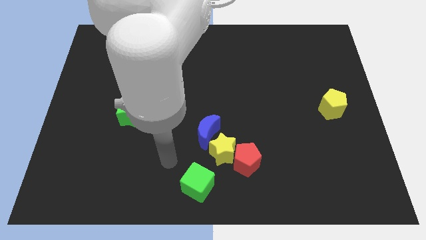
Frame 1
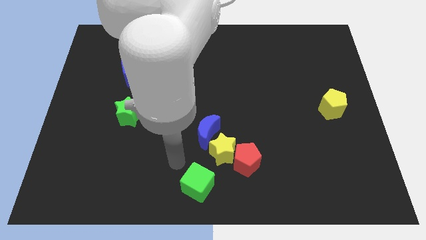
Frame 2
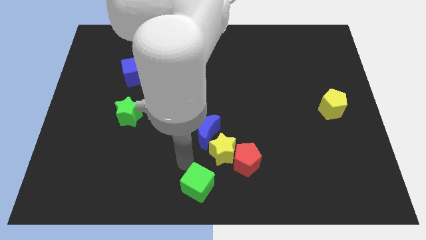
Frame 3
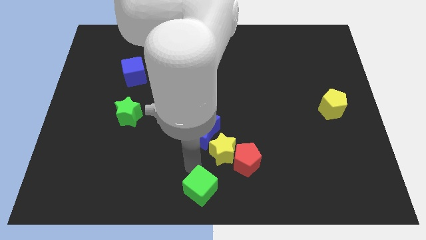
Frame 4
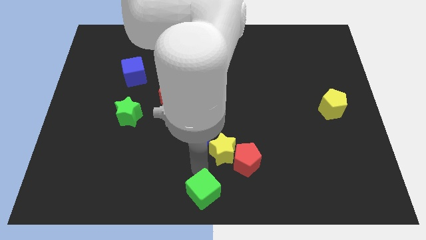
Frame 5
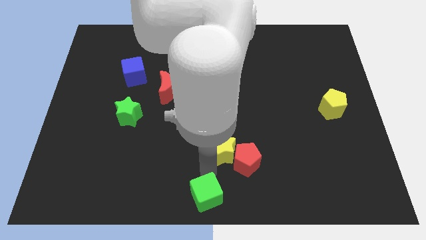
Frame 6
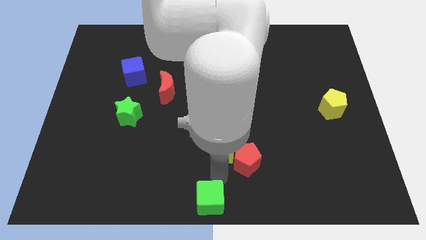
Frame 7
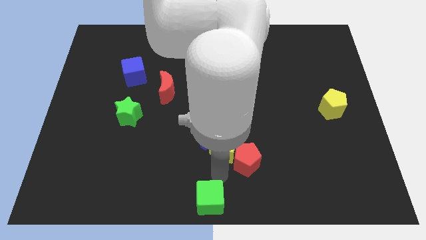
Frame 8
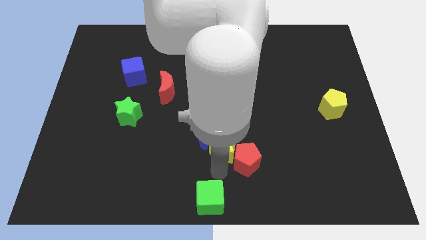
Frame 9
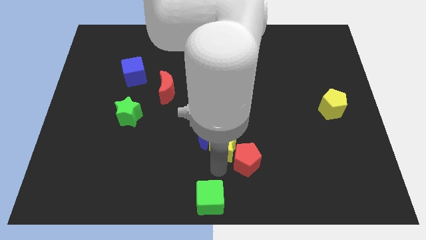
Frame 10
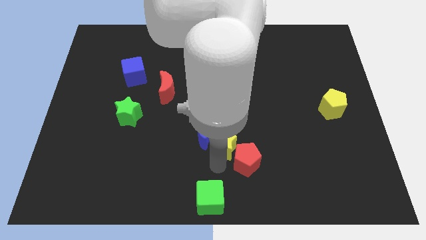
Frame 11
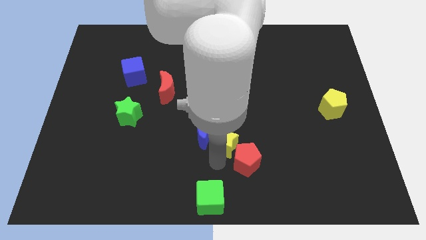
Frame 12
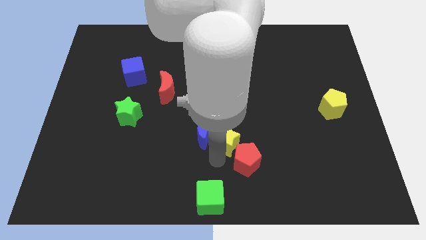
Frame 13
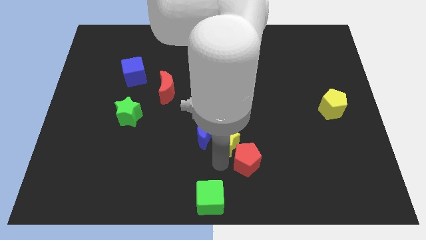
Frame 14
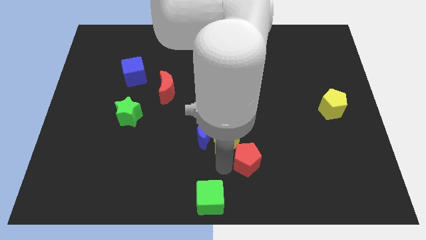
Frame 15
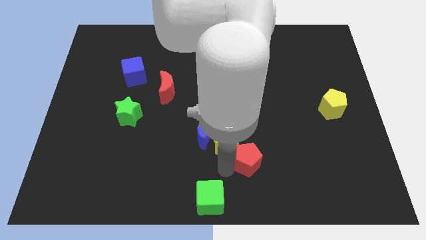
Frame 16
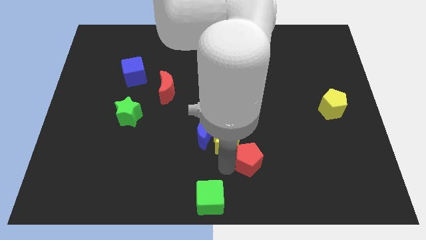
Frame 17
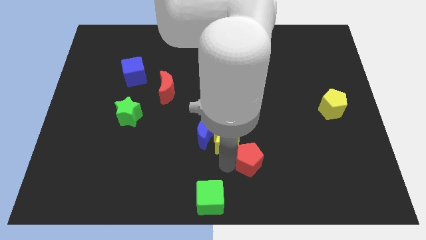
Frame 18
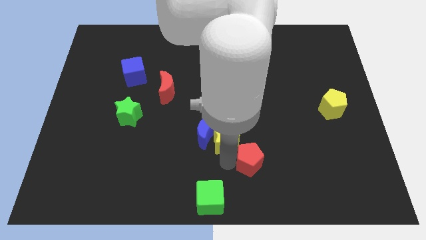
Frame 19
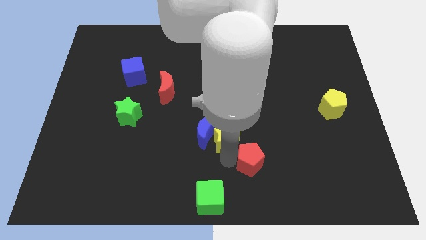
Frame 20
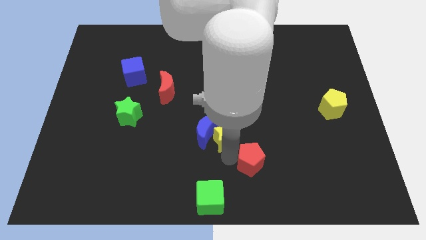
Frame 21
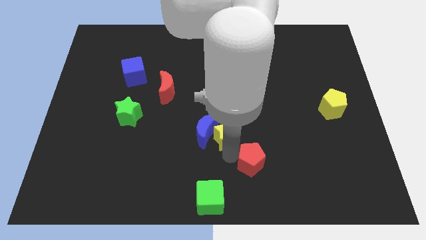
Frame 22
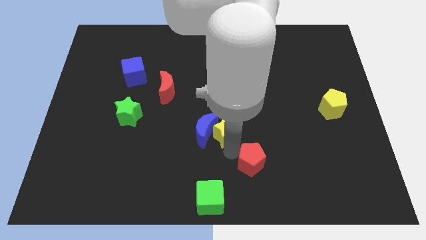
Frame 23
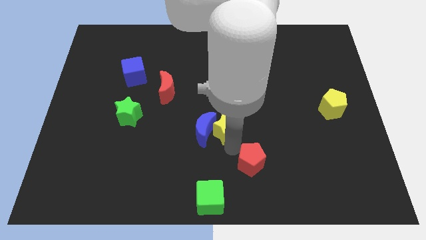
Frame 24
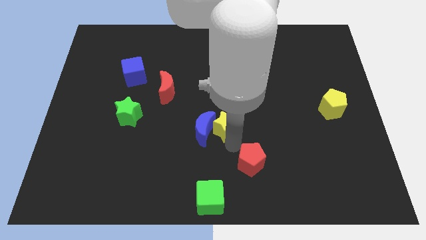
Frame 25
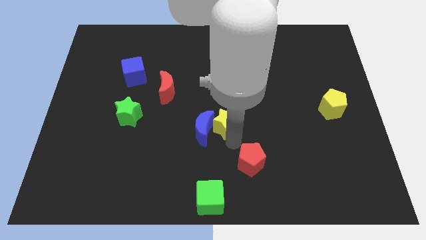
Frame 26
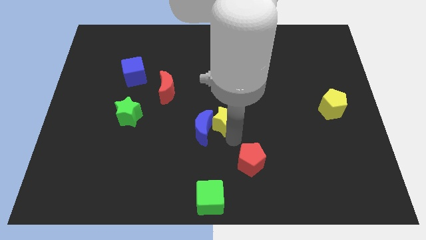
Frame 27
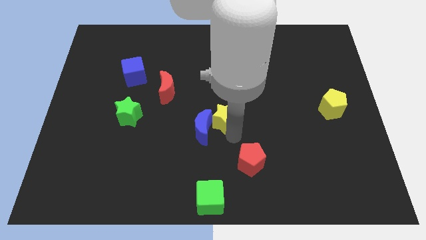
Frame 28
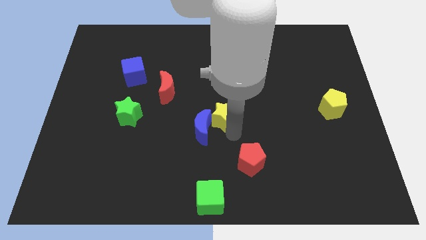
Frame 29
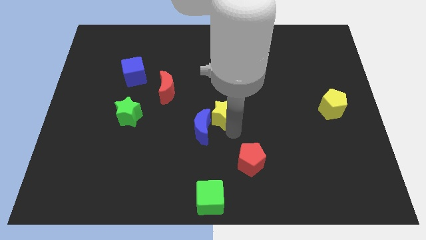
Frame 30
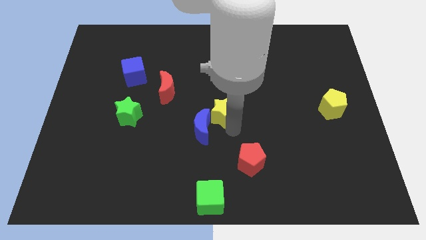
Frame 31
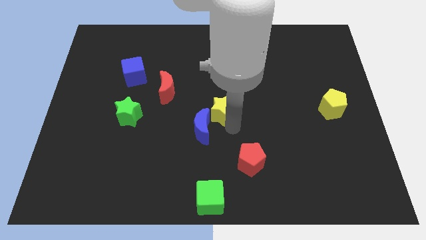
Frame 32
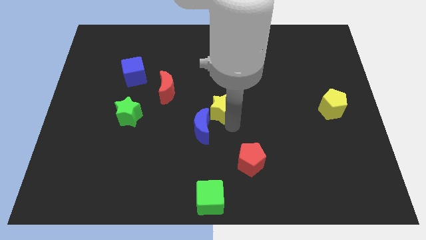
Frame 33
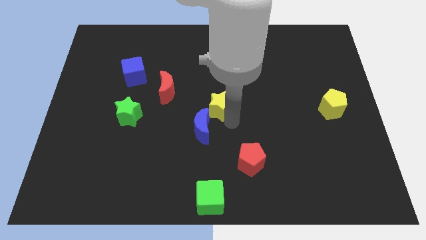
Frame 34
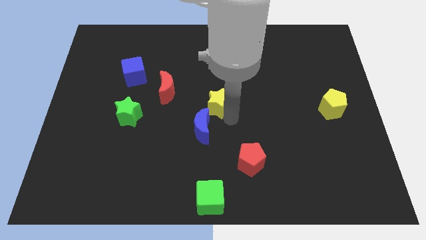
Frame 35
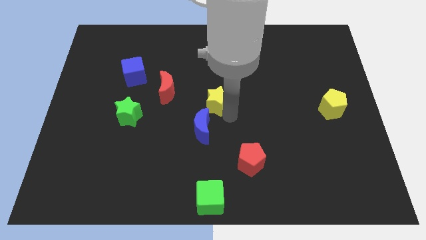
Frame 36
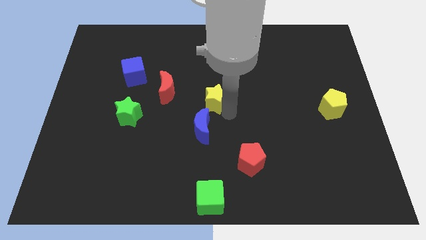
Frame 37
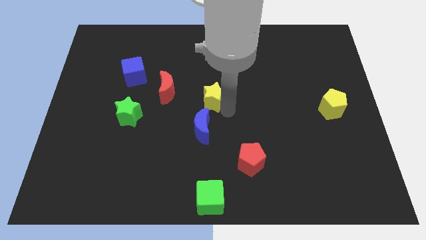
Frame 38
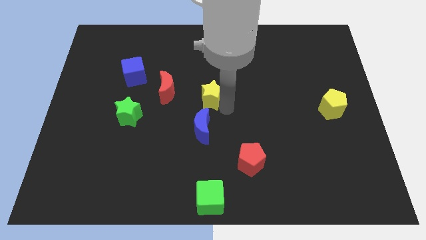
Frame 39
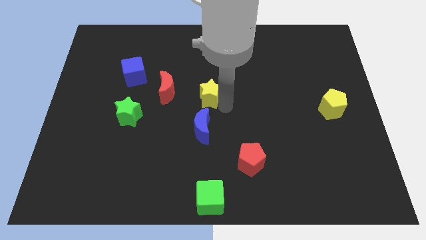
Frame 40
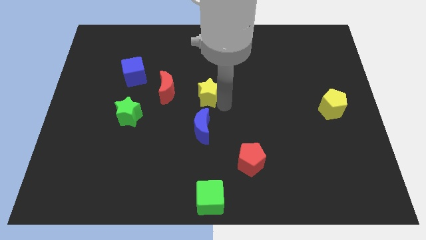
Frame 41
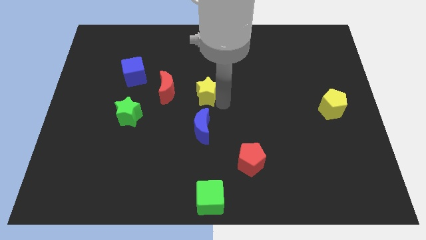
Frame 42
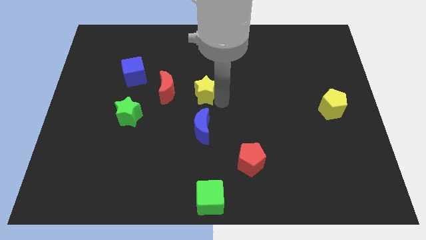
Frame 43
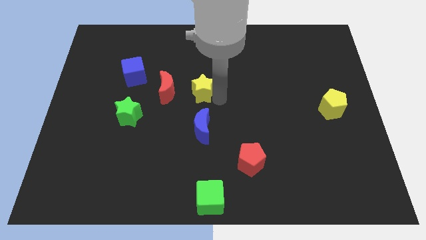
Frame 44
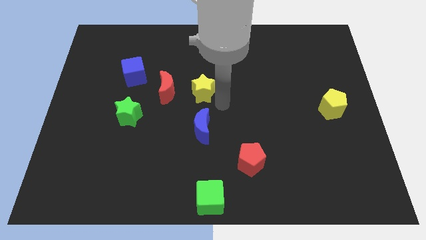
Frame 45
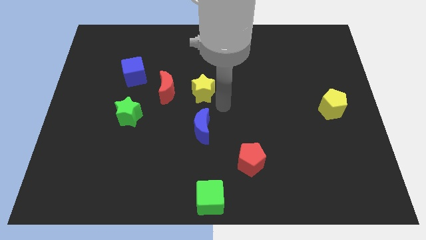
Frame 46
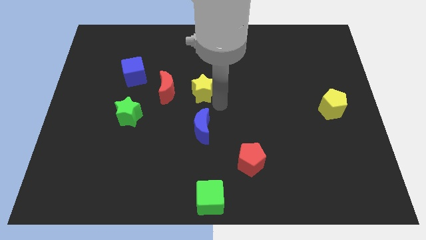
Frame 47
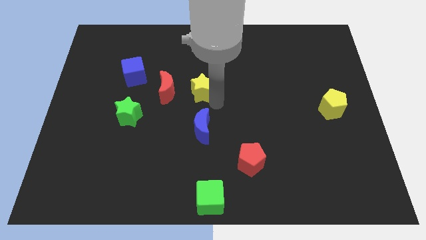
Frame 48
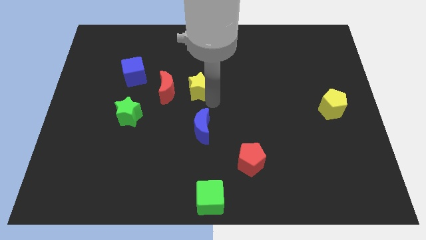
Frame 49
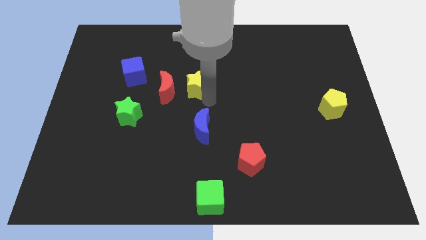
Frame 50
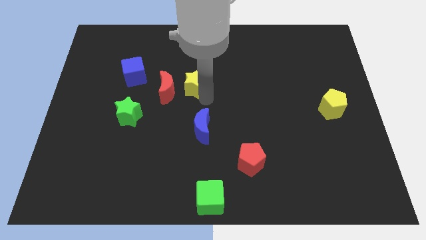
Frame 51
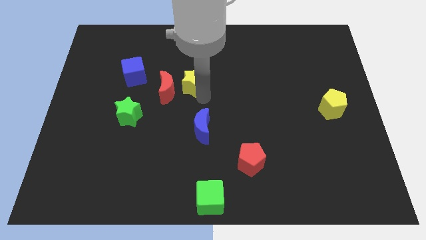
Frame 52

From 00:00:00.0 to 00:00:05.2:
put the yellow star just right of the blue cube

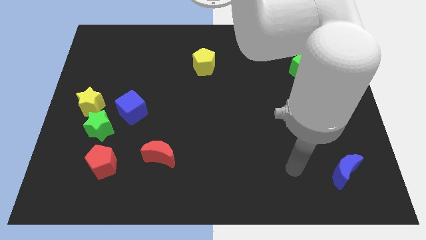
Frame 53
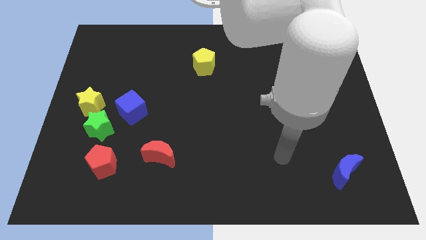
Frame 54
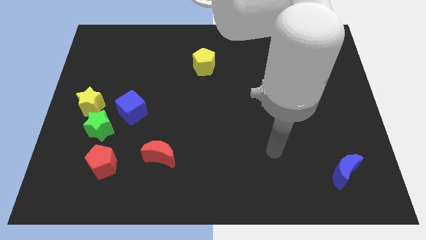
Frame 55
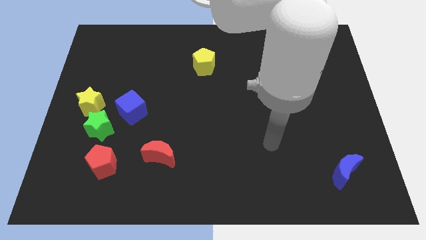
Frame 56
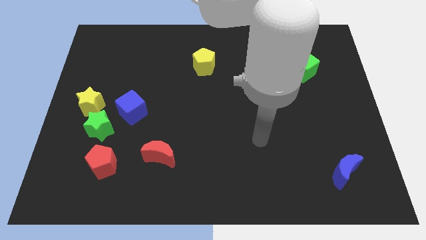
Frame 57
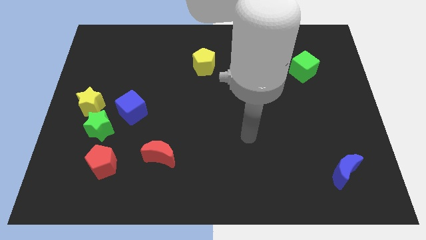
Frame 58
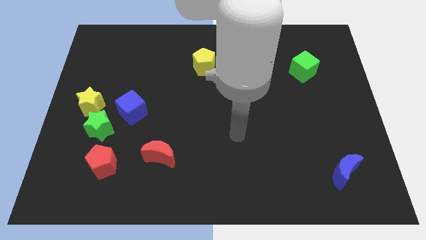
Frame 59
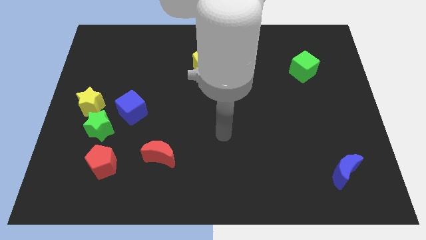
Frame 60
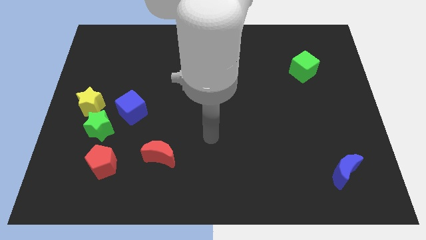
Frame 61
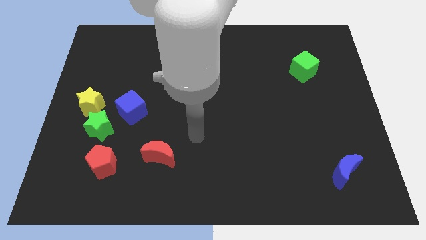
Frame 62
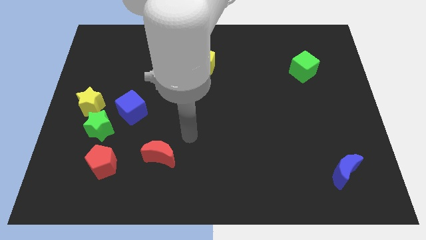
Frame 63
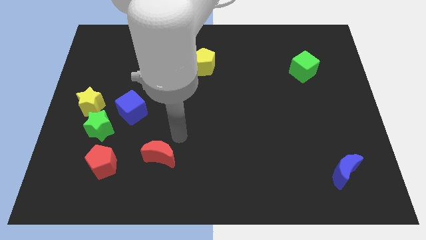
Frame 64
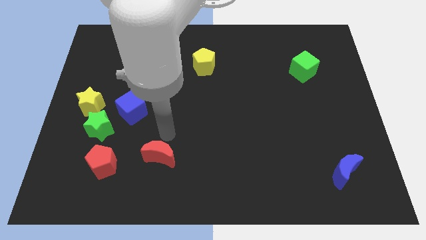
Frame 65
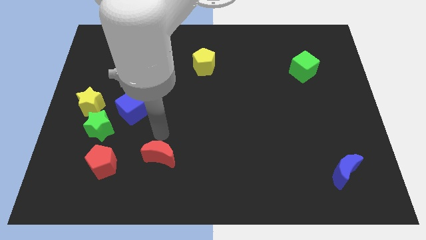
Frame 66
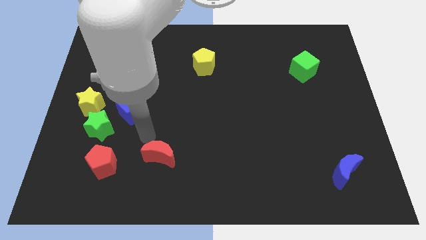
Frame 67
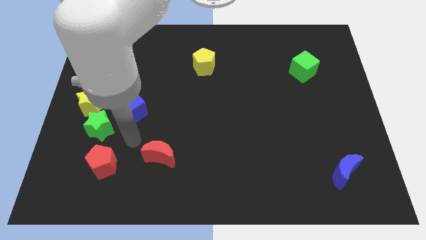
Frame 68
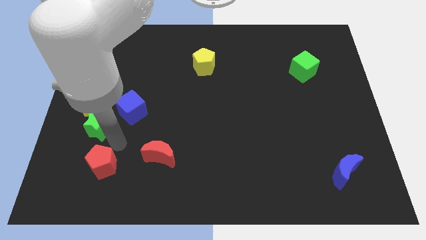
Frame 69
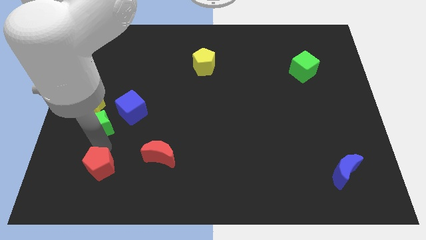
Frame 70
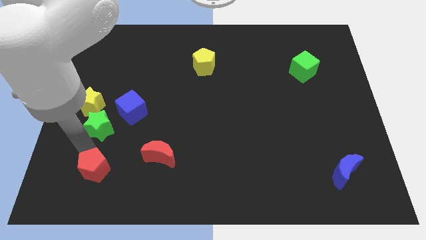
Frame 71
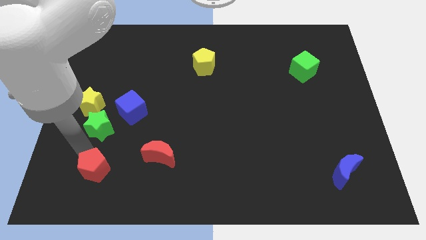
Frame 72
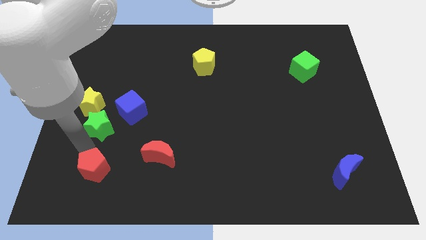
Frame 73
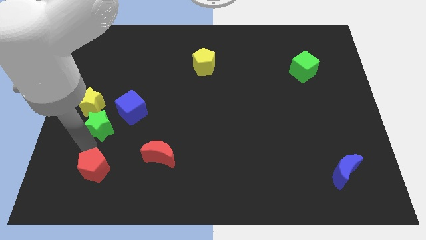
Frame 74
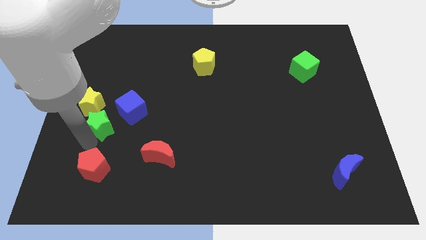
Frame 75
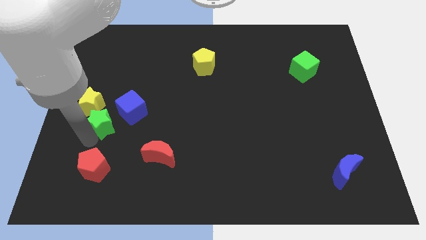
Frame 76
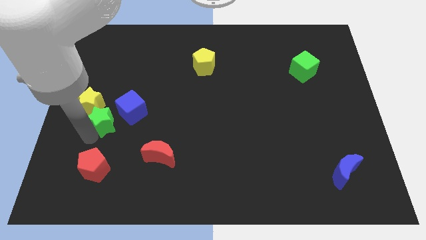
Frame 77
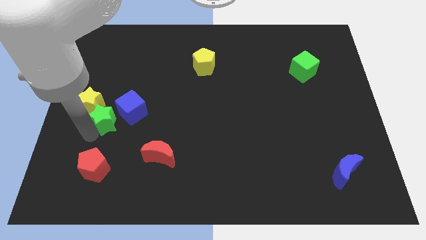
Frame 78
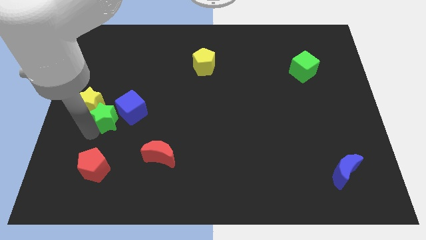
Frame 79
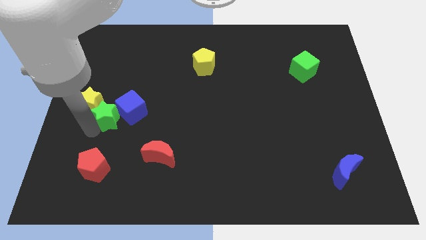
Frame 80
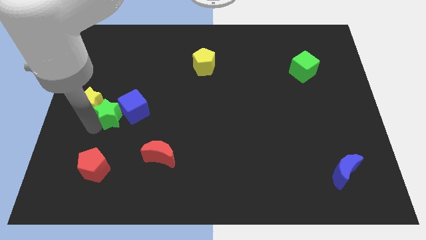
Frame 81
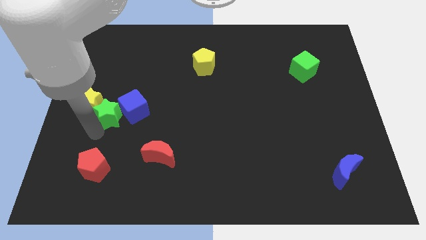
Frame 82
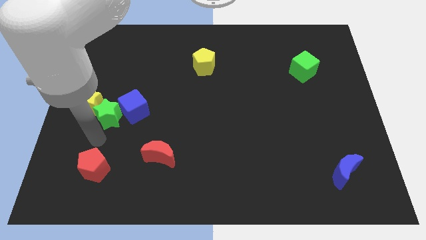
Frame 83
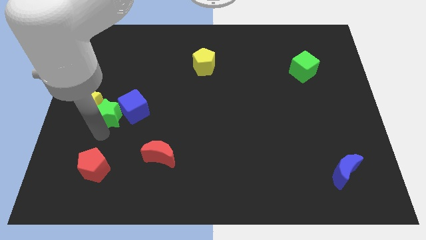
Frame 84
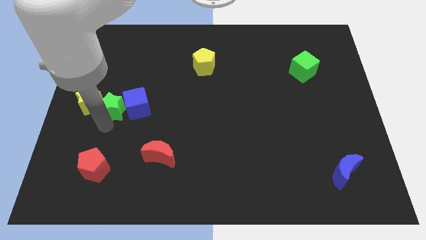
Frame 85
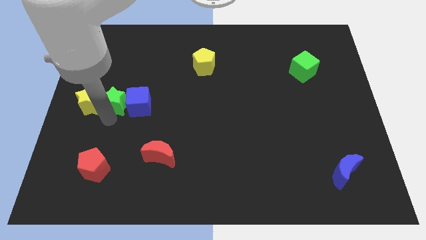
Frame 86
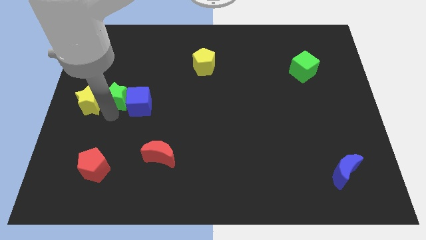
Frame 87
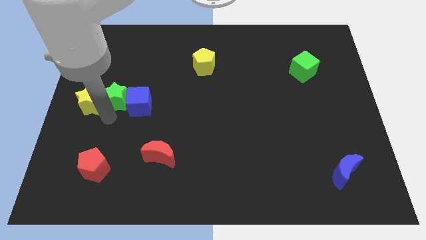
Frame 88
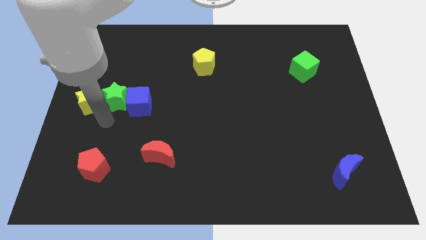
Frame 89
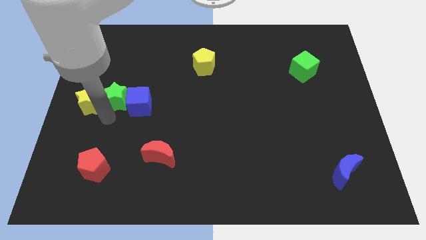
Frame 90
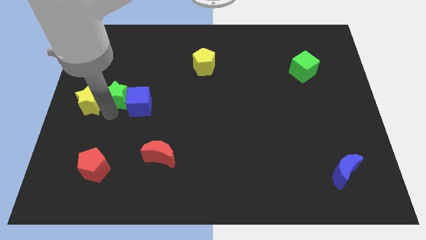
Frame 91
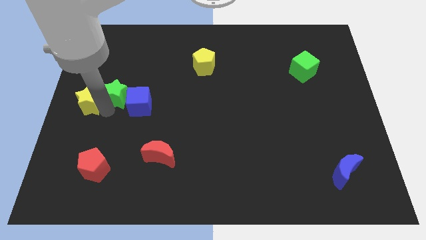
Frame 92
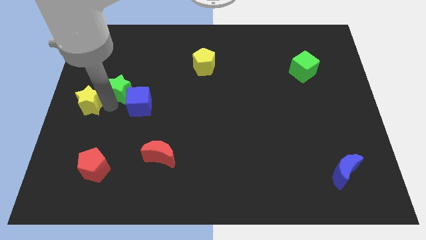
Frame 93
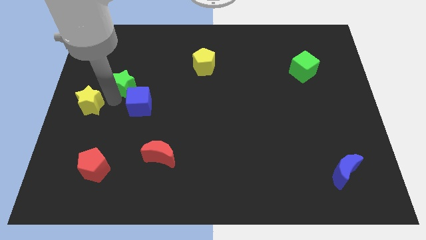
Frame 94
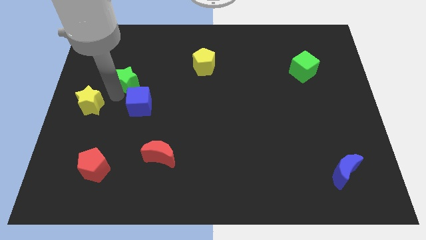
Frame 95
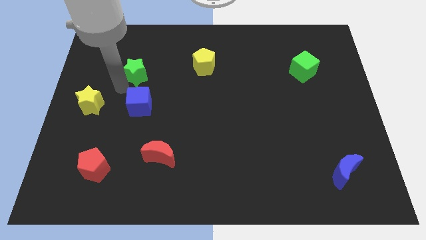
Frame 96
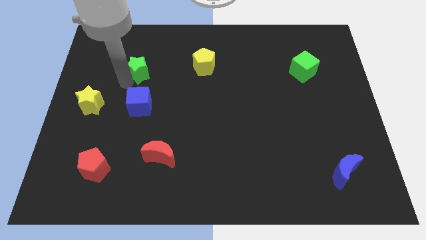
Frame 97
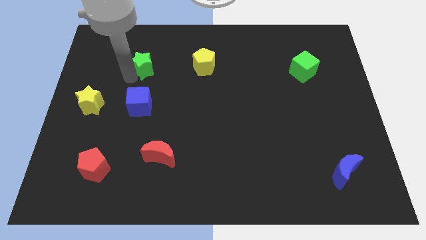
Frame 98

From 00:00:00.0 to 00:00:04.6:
move the green star left of the yellow pentagon
